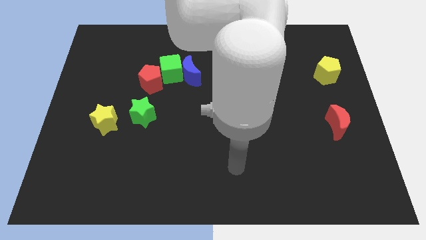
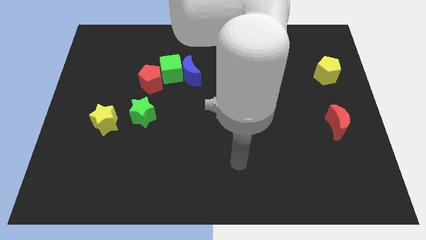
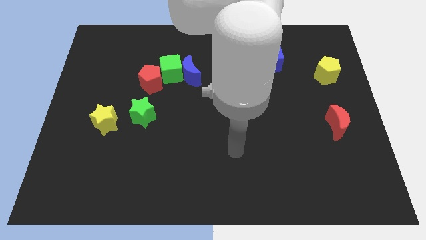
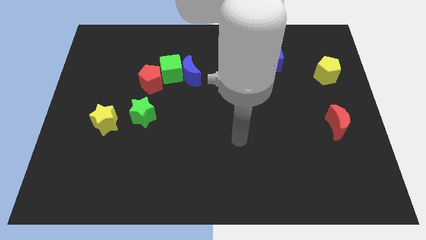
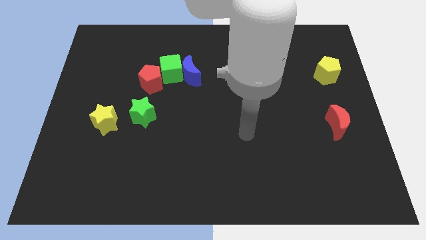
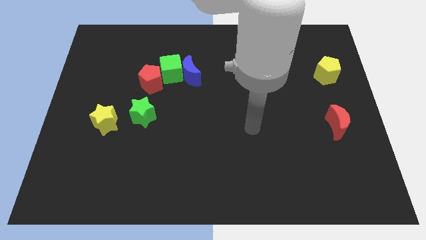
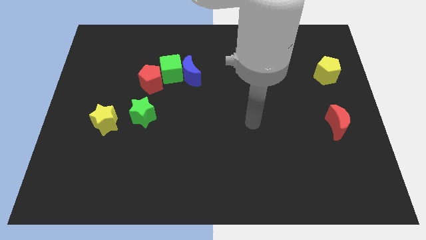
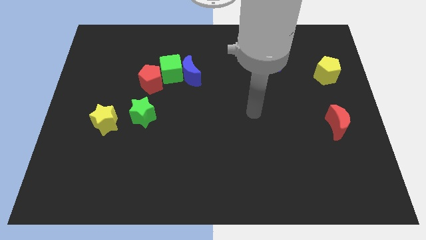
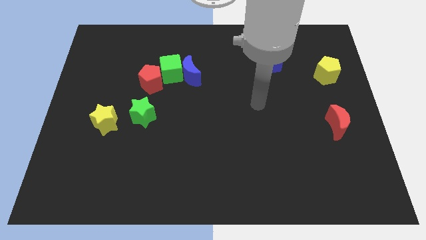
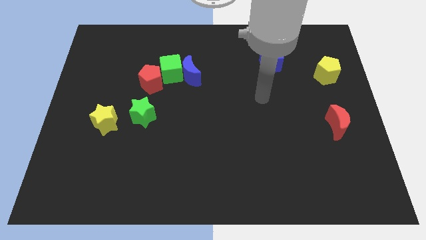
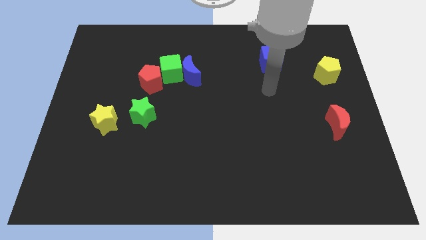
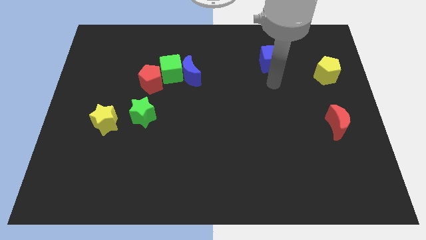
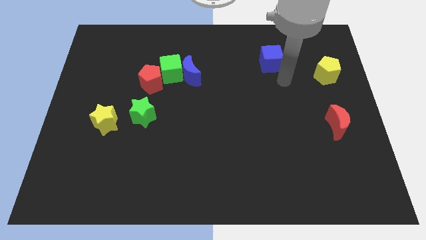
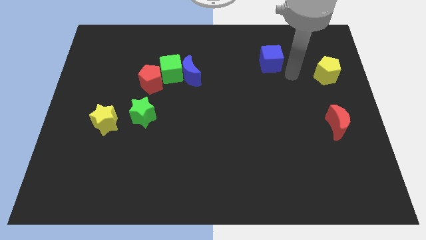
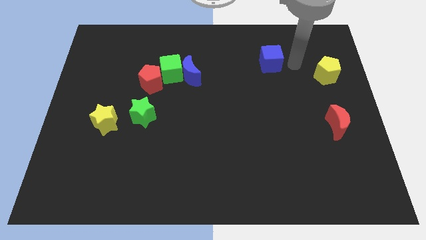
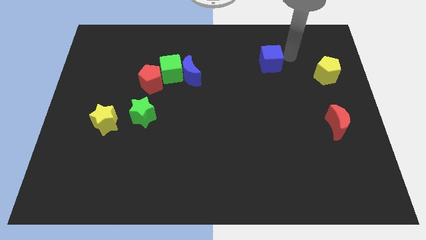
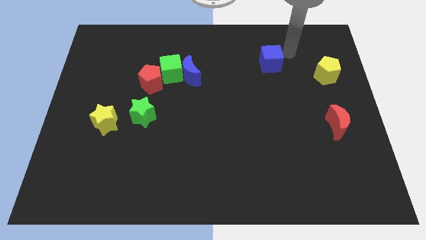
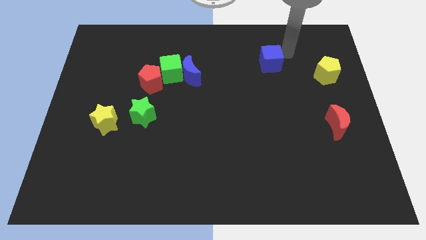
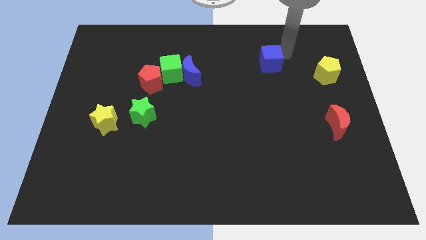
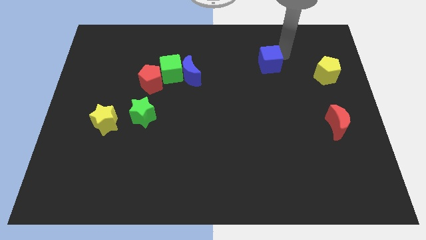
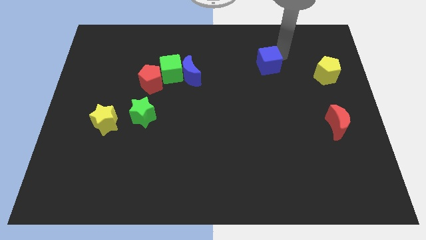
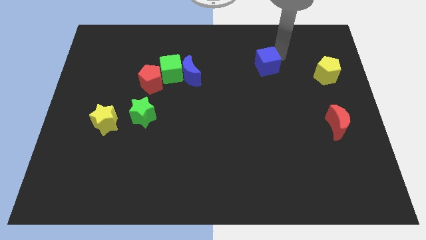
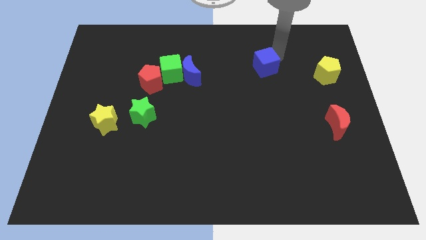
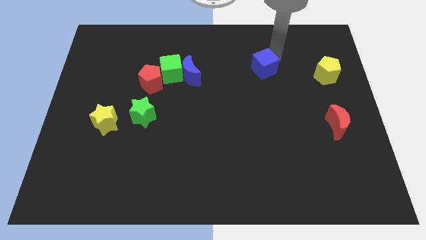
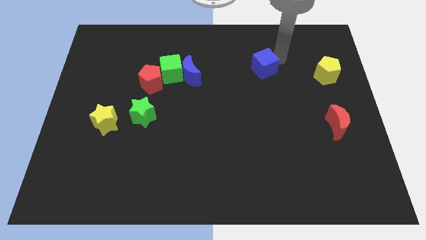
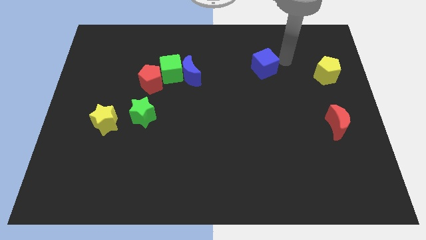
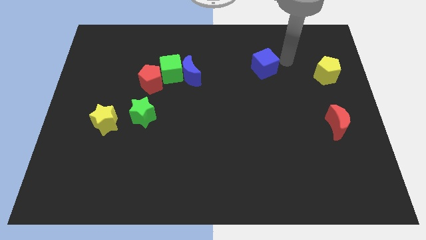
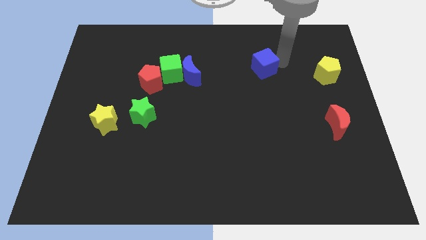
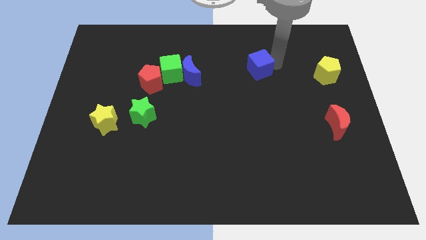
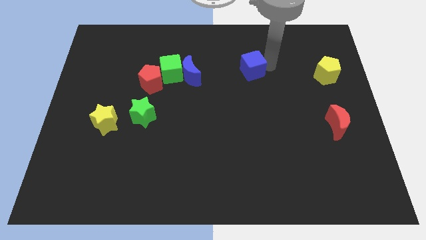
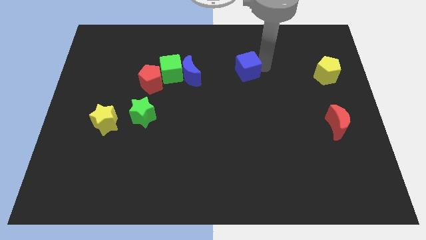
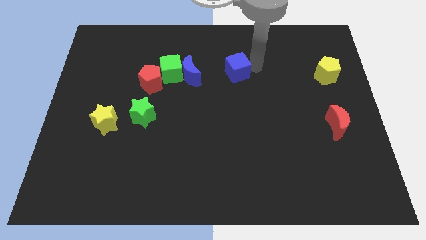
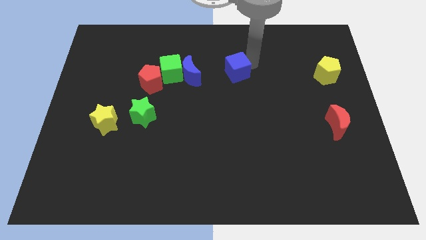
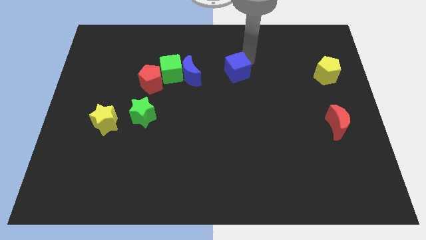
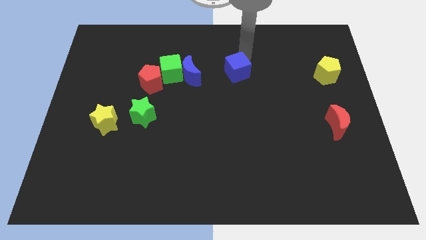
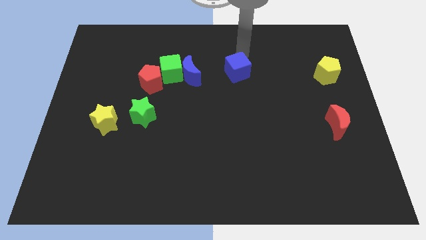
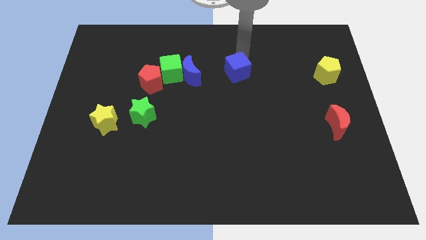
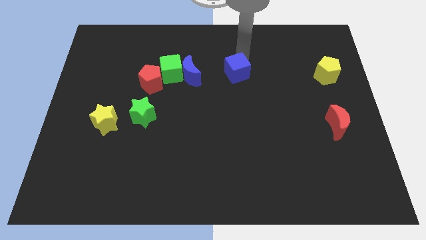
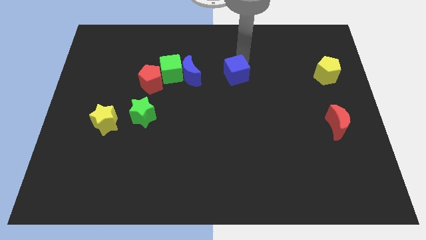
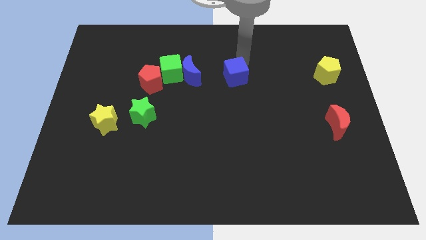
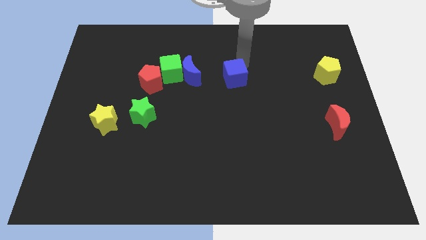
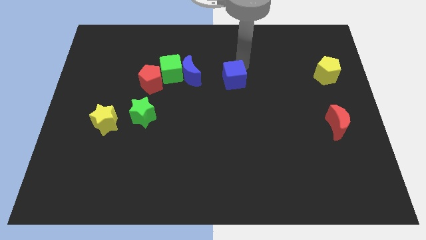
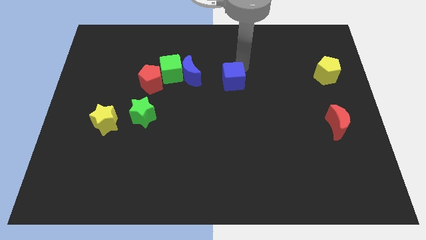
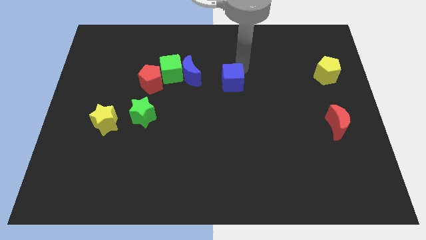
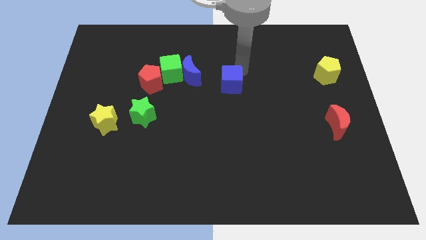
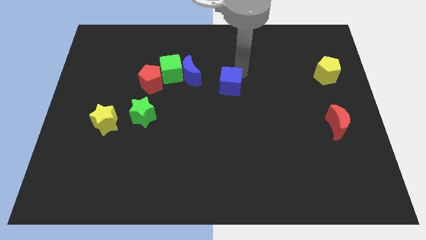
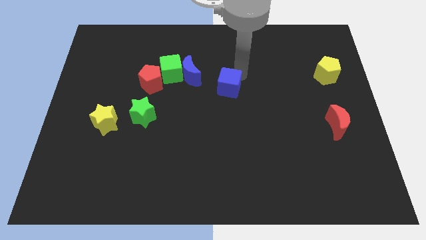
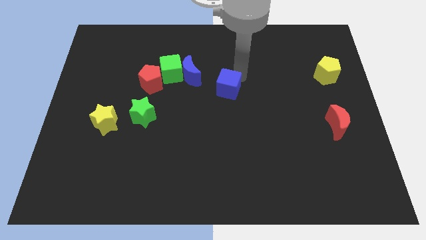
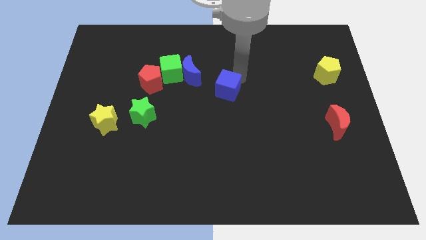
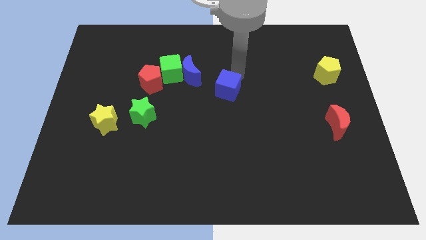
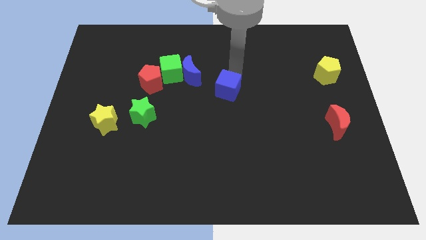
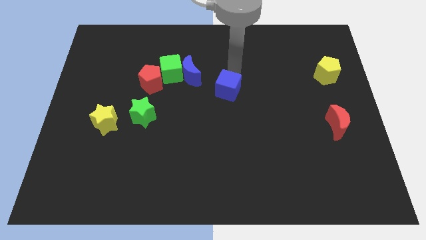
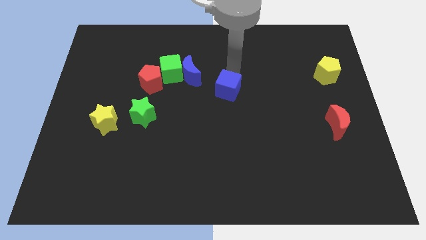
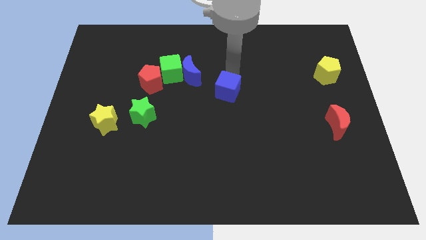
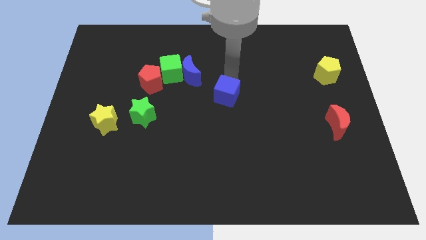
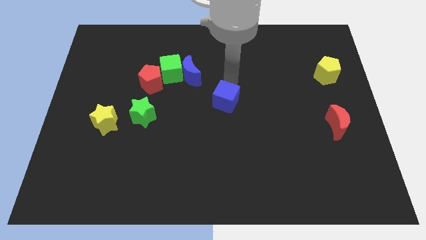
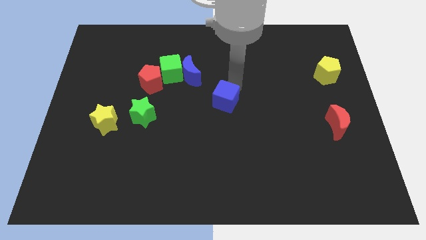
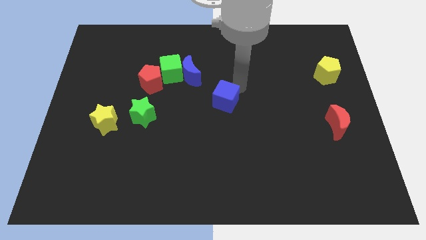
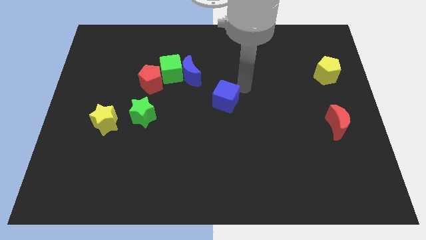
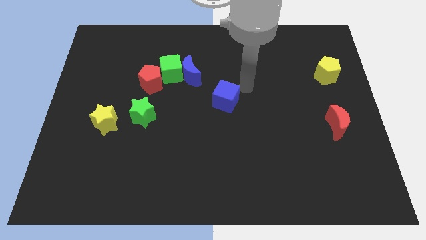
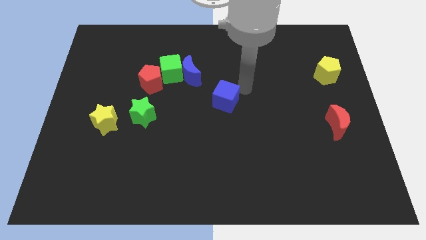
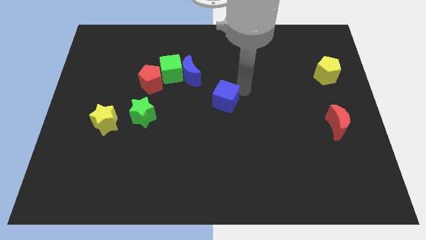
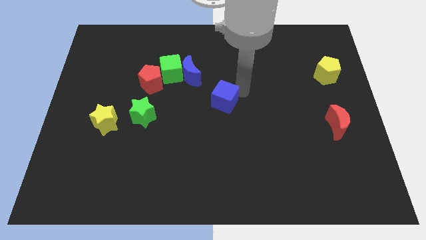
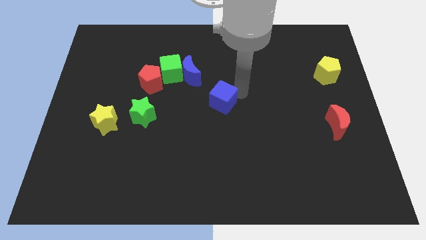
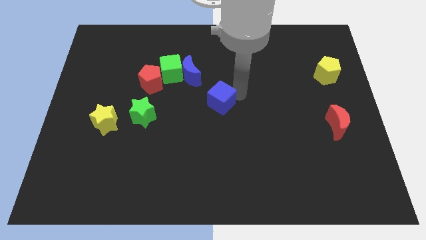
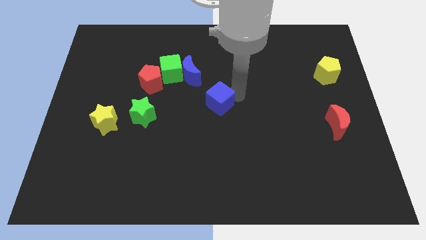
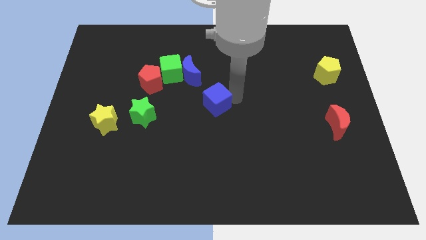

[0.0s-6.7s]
slide the blue cube downwards and then to the left

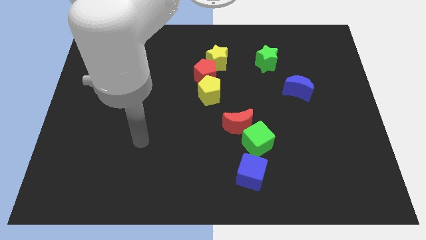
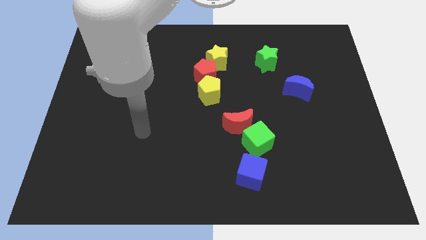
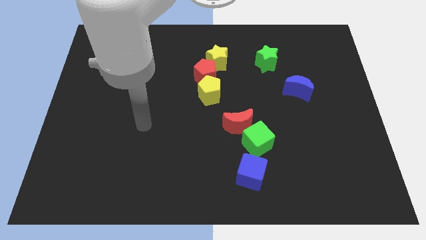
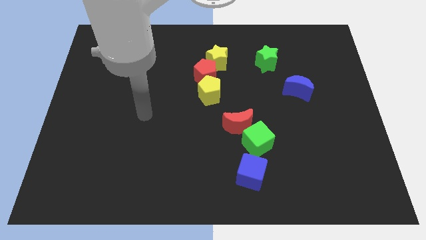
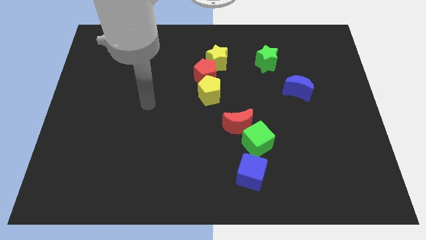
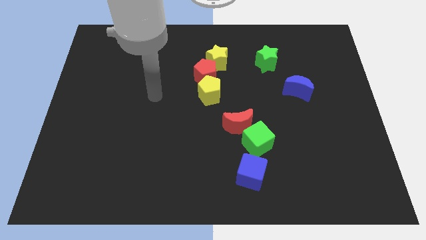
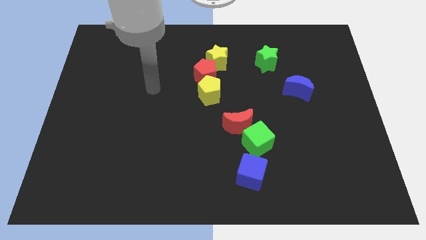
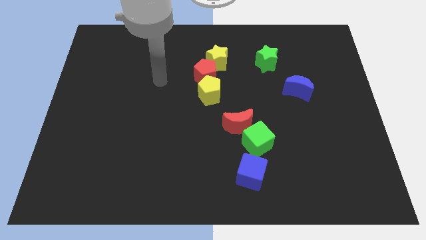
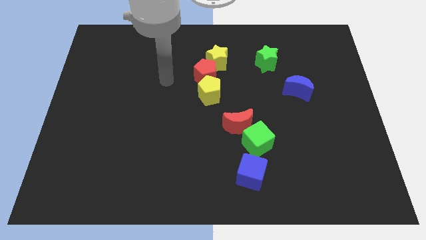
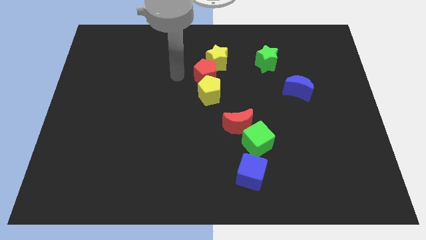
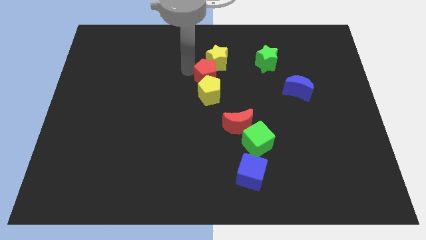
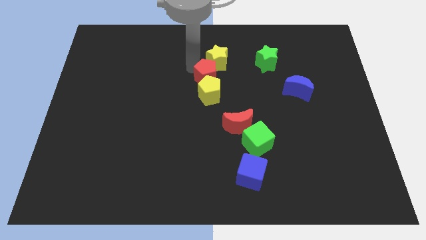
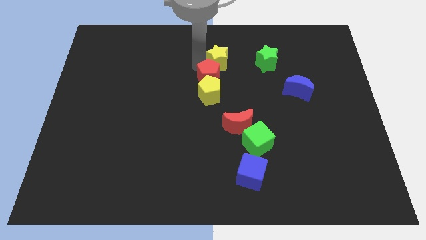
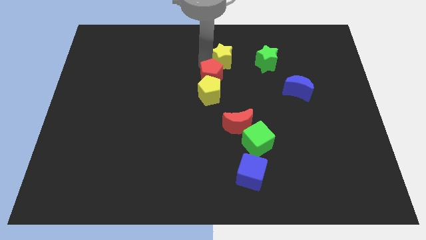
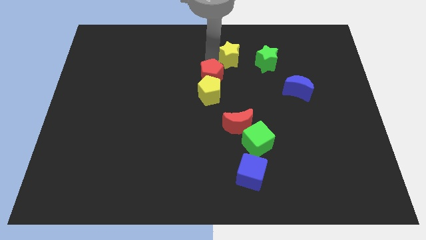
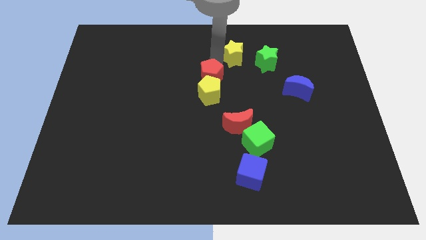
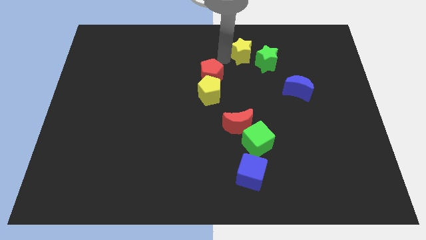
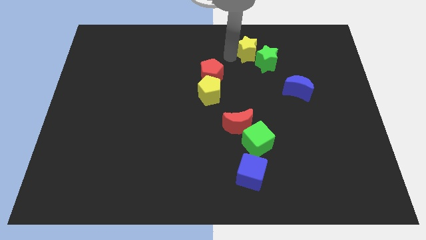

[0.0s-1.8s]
slightly push the yellow star right
